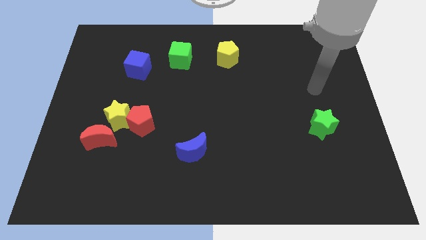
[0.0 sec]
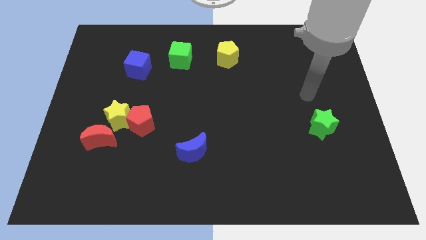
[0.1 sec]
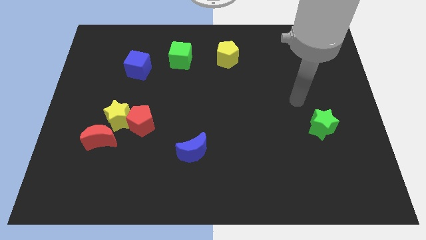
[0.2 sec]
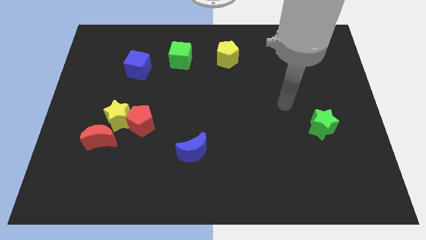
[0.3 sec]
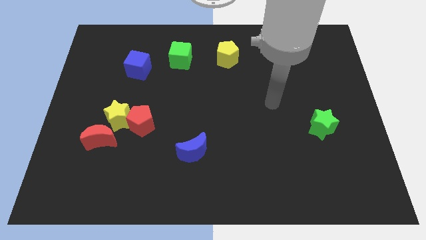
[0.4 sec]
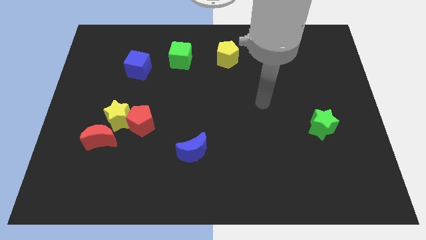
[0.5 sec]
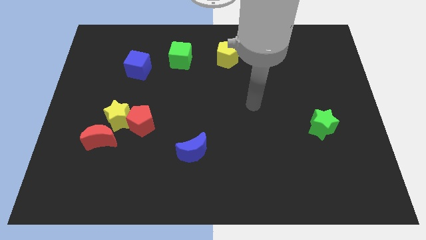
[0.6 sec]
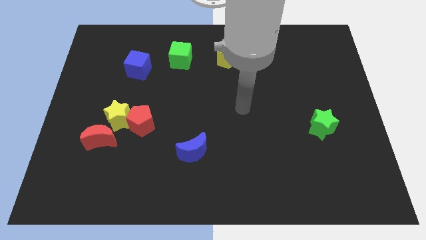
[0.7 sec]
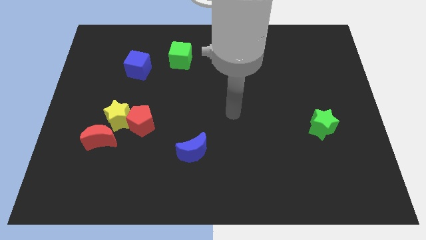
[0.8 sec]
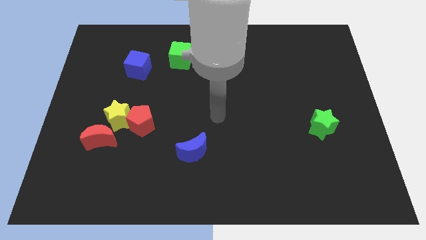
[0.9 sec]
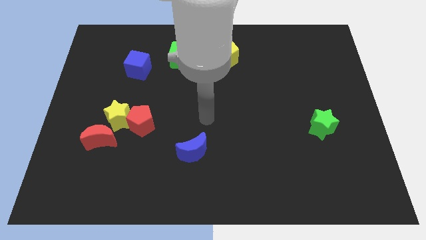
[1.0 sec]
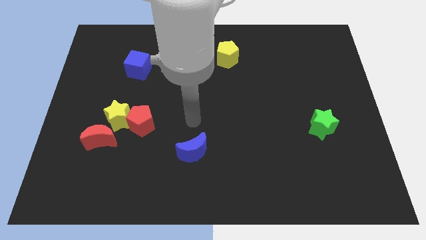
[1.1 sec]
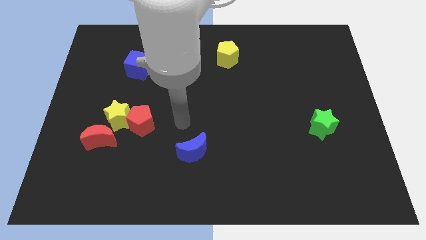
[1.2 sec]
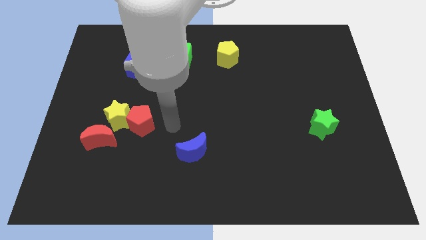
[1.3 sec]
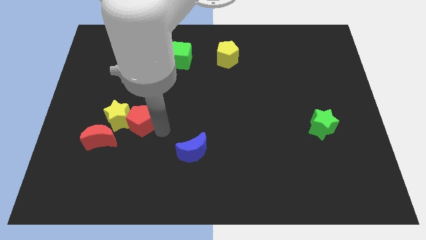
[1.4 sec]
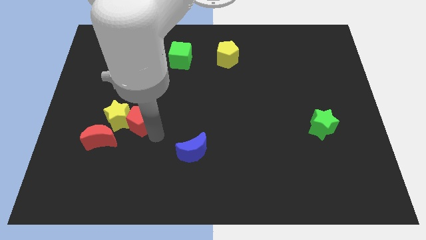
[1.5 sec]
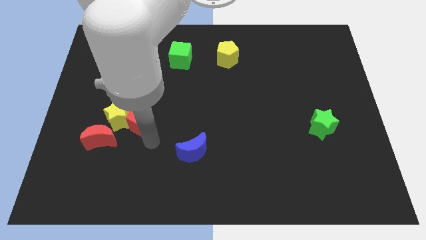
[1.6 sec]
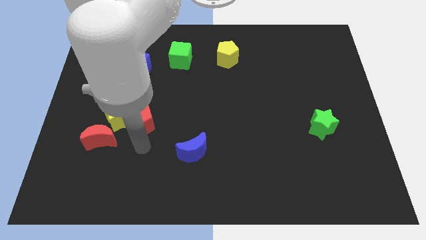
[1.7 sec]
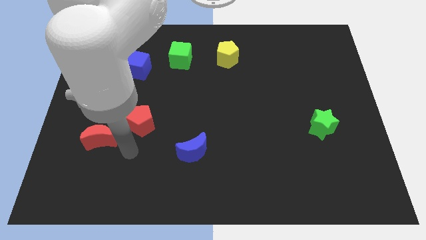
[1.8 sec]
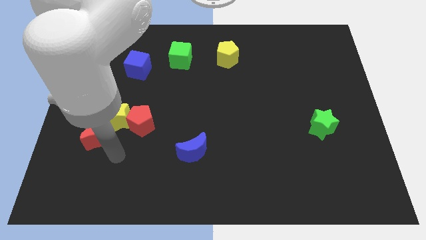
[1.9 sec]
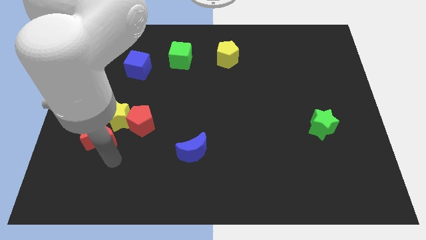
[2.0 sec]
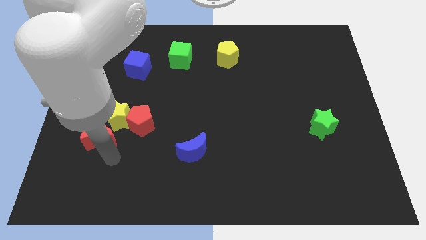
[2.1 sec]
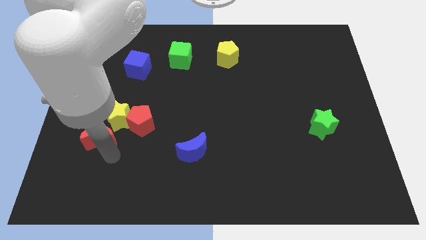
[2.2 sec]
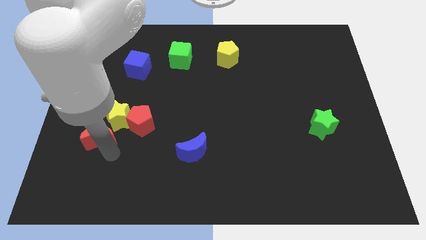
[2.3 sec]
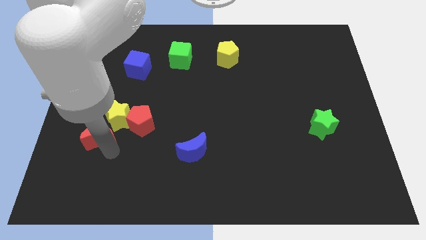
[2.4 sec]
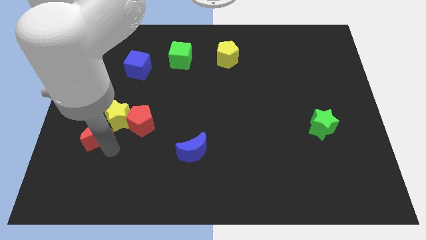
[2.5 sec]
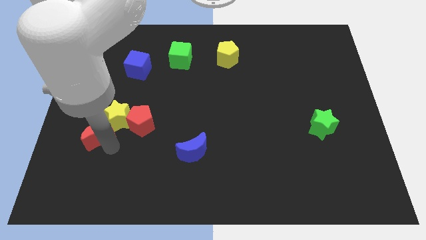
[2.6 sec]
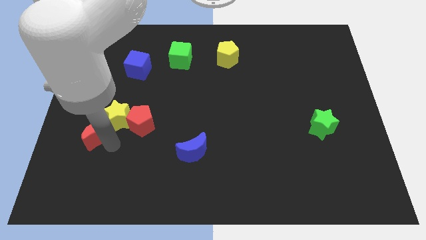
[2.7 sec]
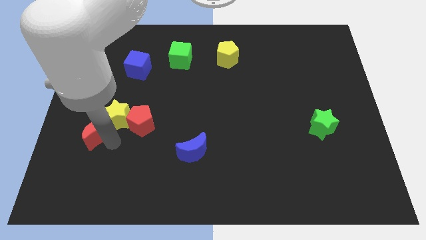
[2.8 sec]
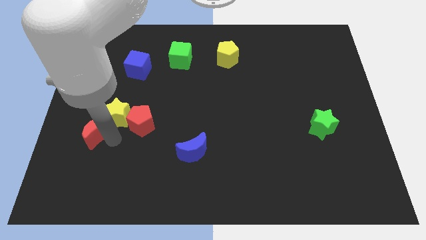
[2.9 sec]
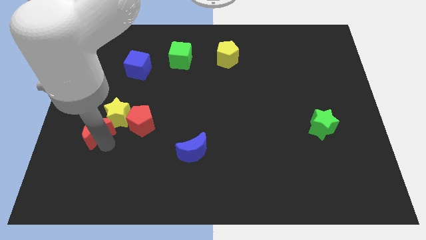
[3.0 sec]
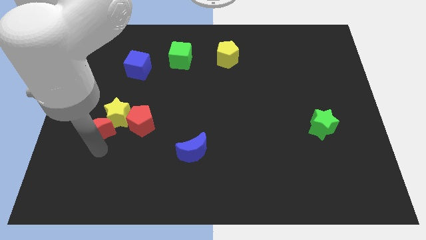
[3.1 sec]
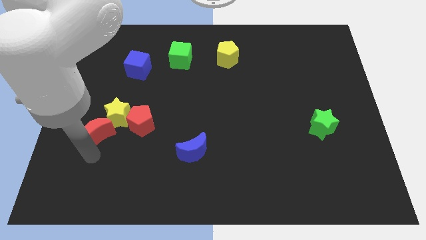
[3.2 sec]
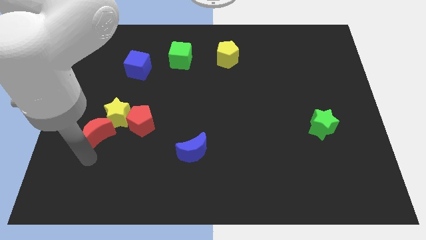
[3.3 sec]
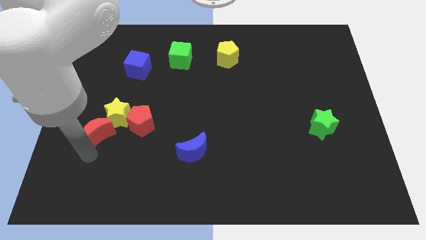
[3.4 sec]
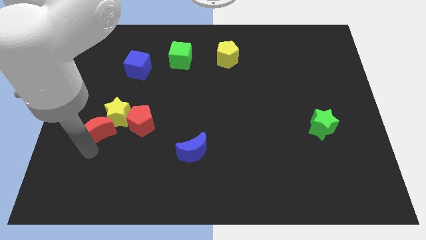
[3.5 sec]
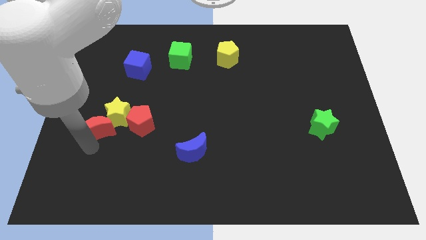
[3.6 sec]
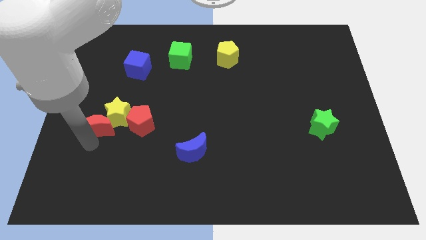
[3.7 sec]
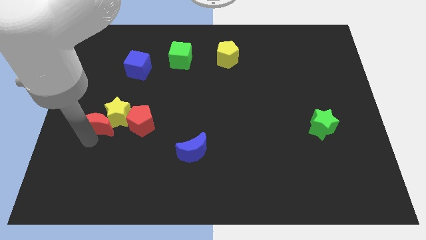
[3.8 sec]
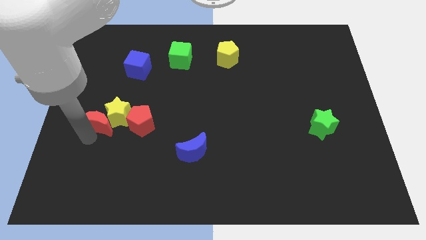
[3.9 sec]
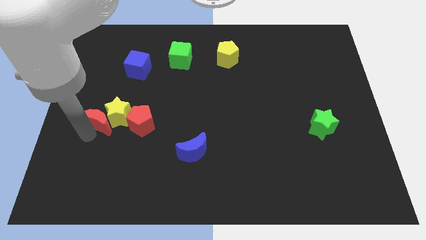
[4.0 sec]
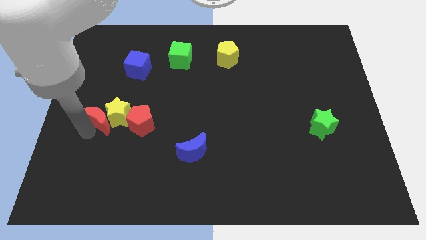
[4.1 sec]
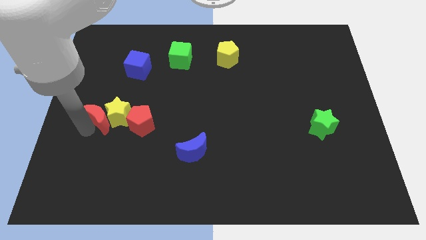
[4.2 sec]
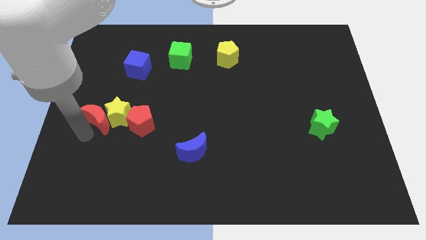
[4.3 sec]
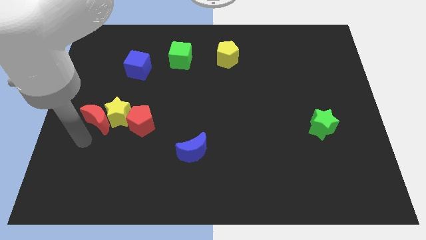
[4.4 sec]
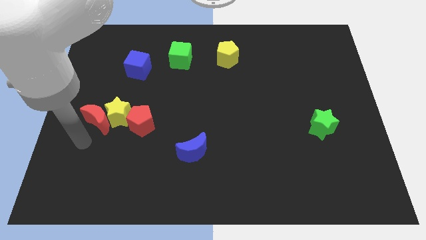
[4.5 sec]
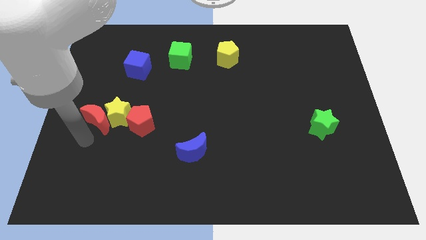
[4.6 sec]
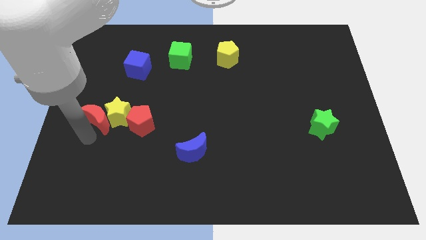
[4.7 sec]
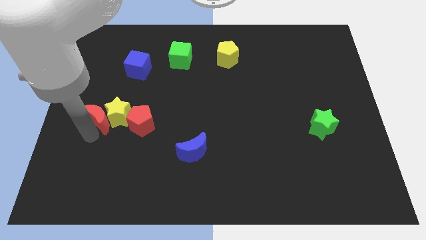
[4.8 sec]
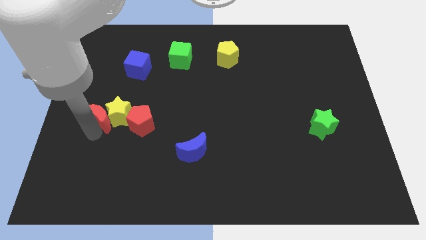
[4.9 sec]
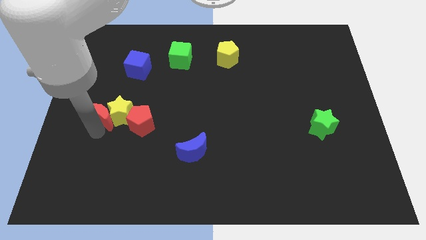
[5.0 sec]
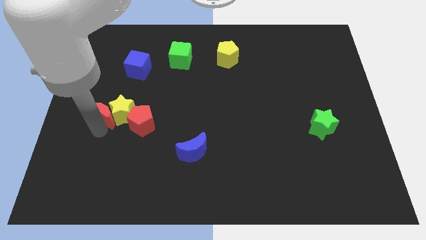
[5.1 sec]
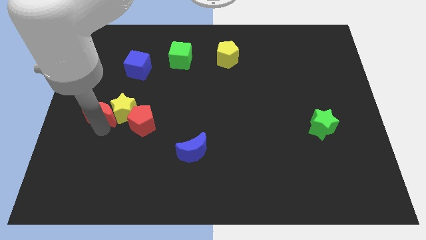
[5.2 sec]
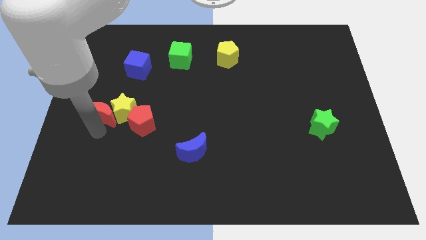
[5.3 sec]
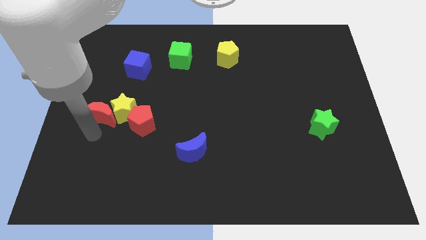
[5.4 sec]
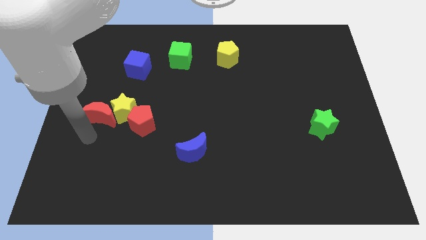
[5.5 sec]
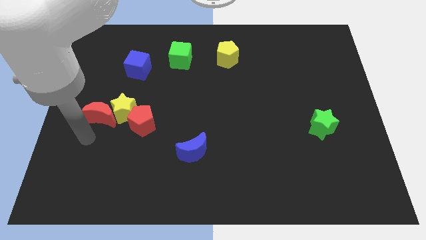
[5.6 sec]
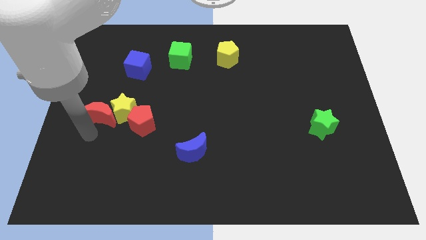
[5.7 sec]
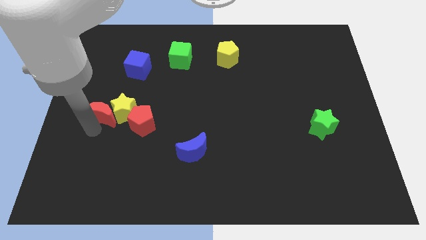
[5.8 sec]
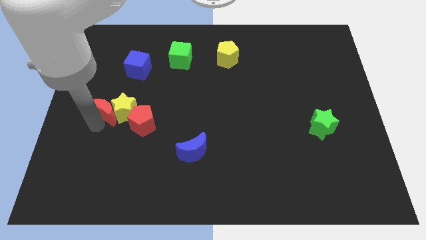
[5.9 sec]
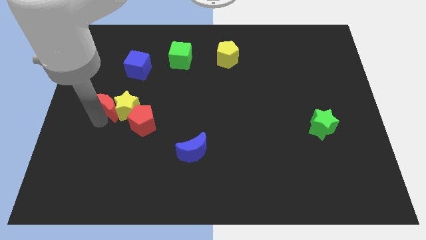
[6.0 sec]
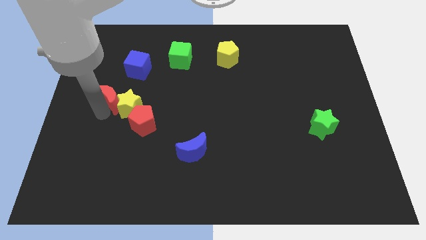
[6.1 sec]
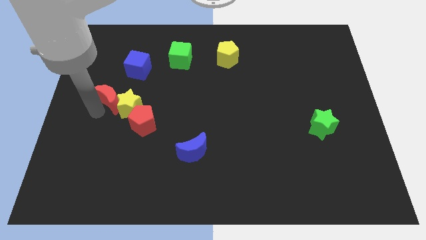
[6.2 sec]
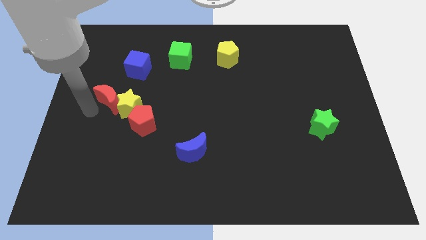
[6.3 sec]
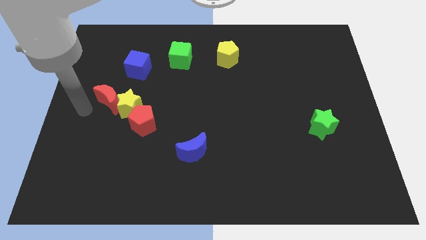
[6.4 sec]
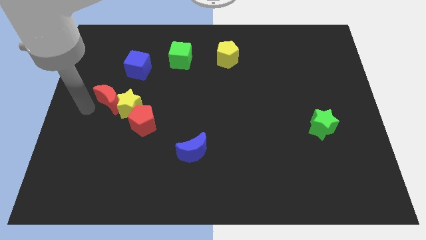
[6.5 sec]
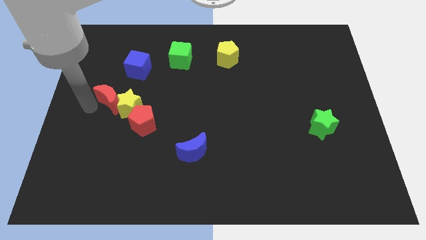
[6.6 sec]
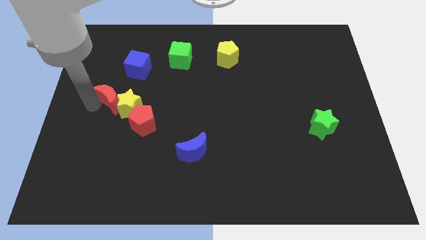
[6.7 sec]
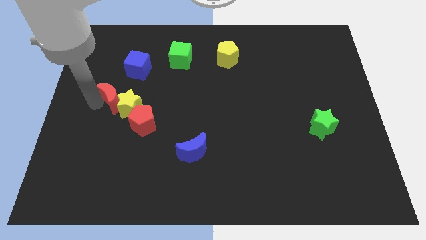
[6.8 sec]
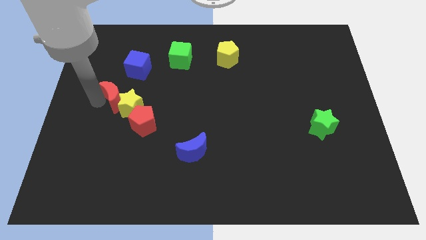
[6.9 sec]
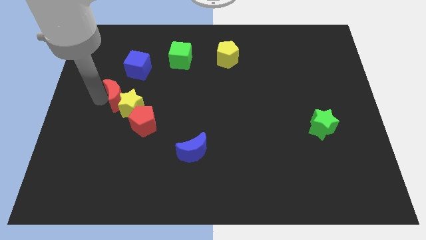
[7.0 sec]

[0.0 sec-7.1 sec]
slide the red moon a little bit up and then to the right

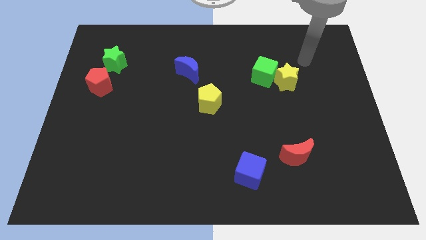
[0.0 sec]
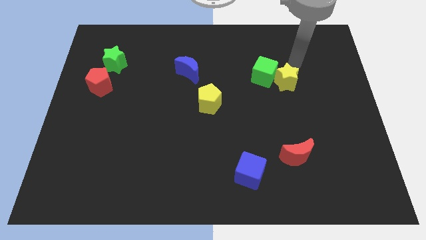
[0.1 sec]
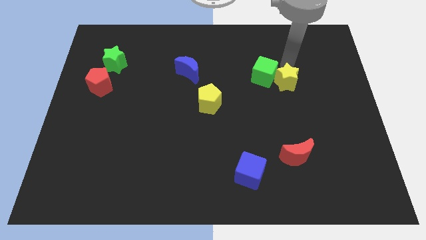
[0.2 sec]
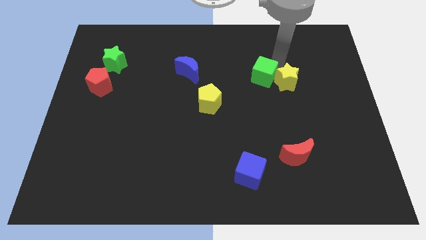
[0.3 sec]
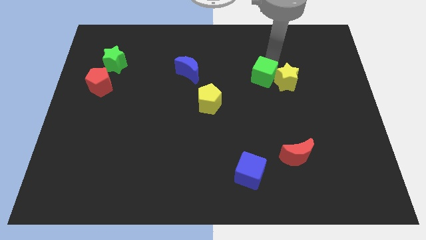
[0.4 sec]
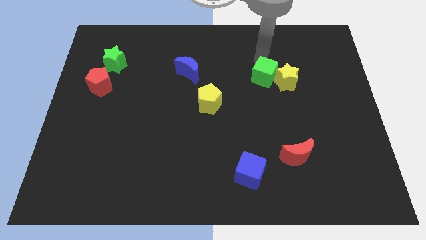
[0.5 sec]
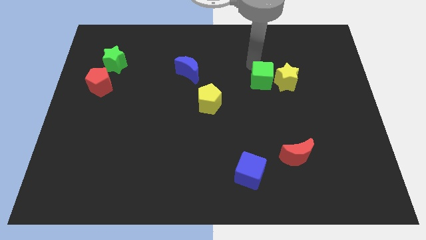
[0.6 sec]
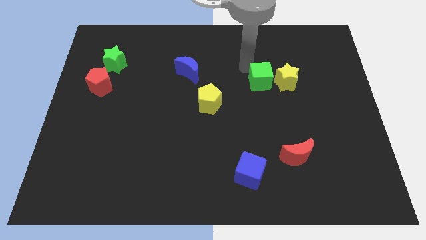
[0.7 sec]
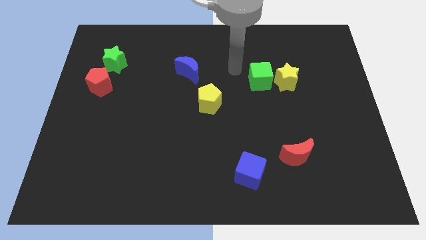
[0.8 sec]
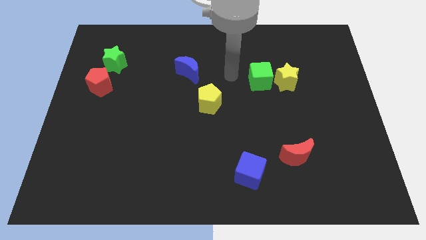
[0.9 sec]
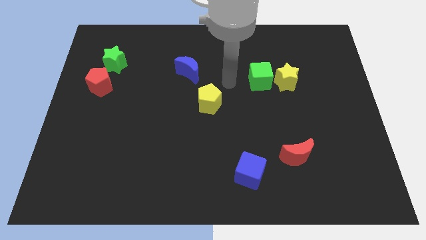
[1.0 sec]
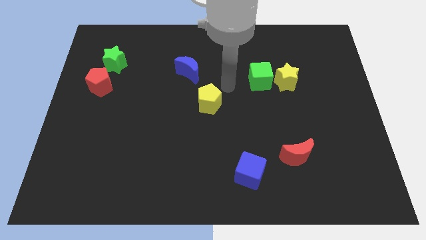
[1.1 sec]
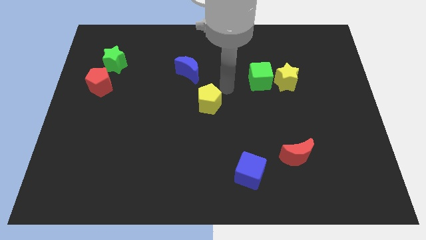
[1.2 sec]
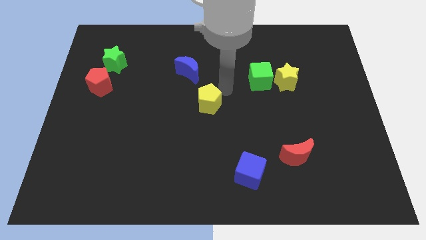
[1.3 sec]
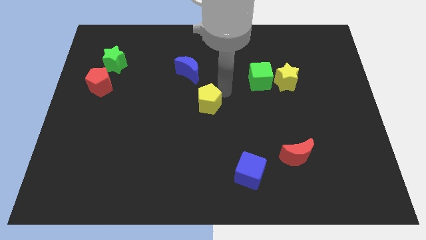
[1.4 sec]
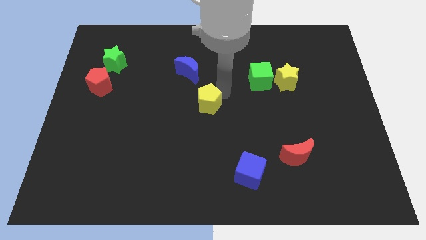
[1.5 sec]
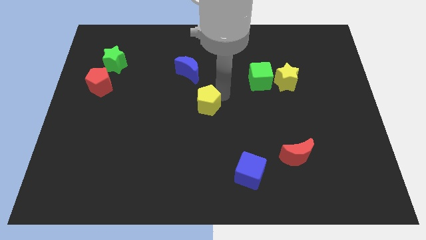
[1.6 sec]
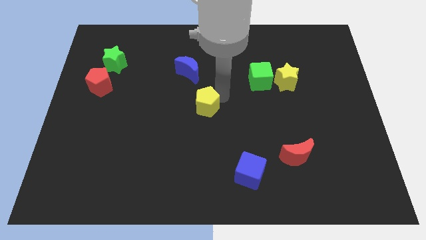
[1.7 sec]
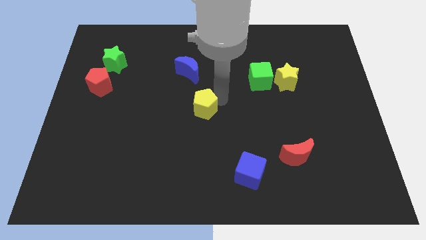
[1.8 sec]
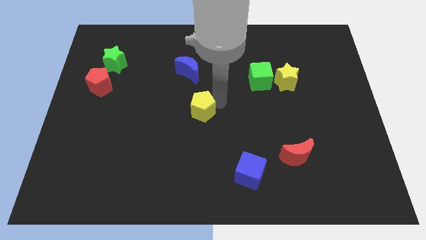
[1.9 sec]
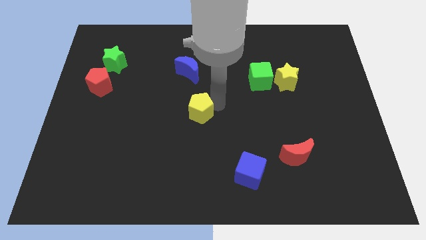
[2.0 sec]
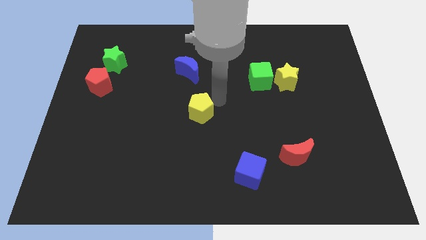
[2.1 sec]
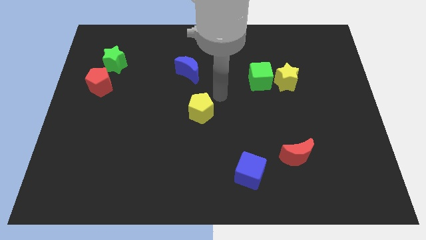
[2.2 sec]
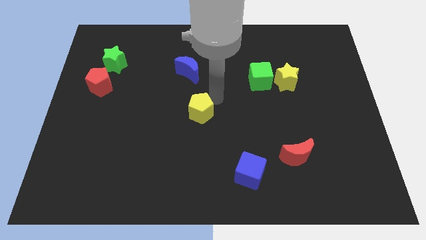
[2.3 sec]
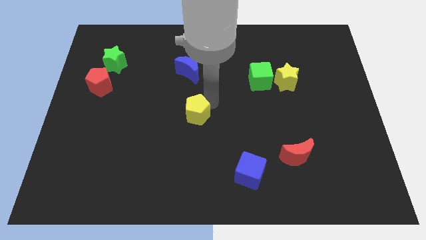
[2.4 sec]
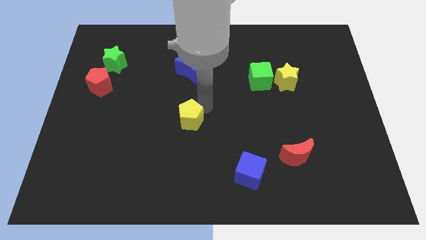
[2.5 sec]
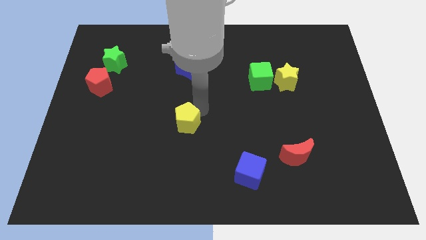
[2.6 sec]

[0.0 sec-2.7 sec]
slightly move the yellow pentagon down and to the left
